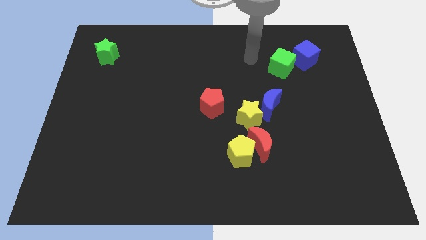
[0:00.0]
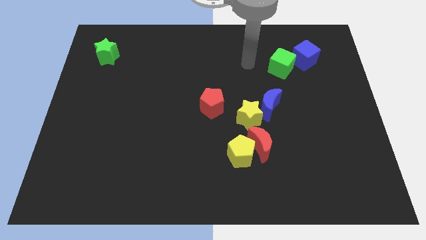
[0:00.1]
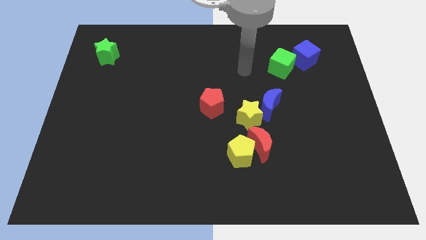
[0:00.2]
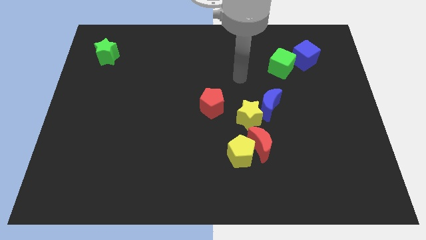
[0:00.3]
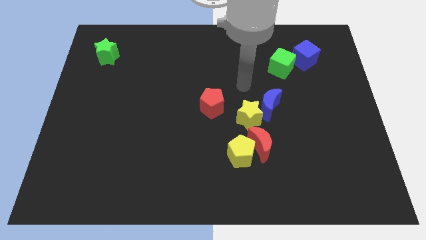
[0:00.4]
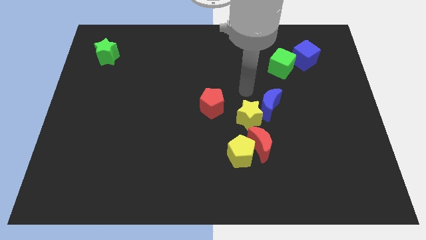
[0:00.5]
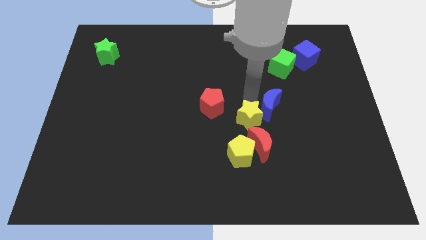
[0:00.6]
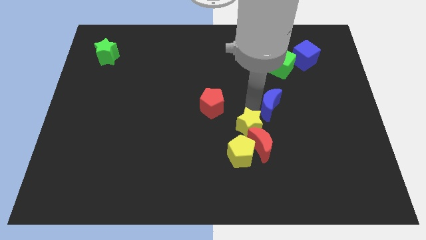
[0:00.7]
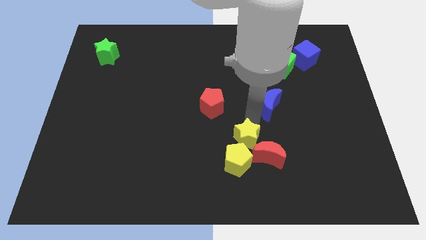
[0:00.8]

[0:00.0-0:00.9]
separate the blue moon from the yellow star

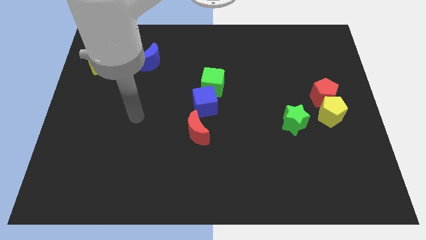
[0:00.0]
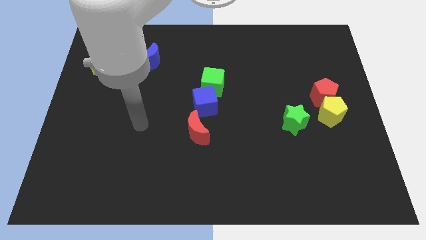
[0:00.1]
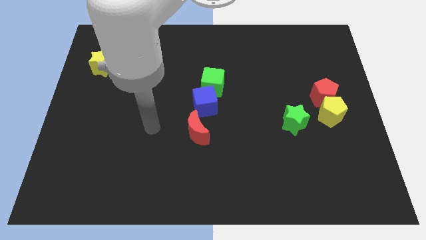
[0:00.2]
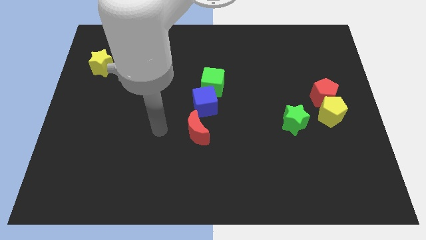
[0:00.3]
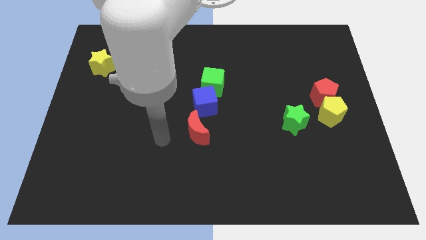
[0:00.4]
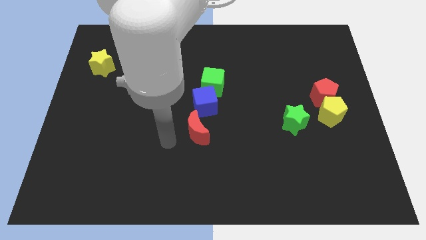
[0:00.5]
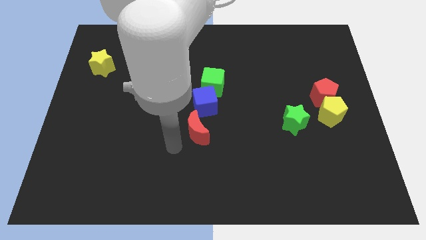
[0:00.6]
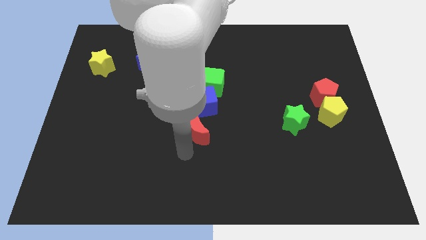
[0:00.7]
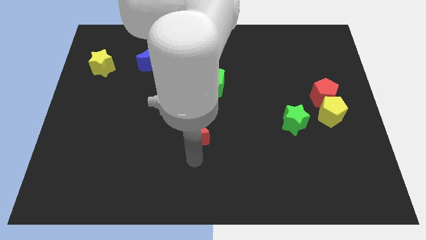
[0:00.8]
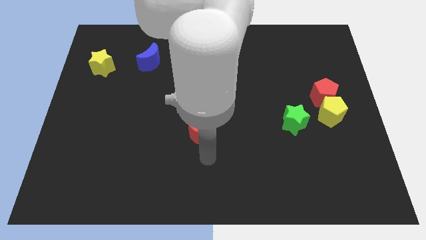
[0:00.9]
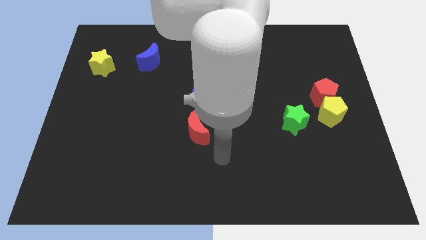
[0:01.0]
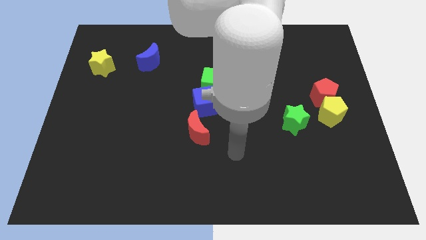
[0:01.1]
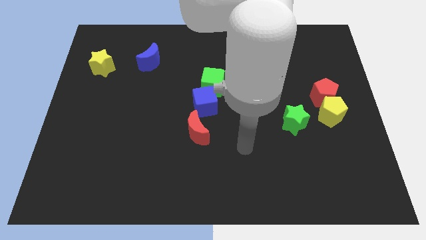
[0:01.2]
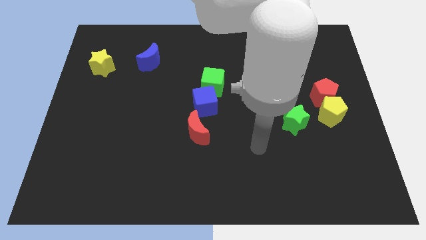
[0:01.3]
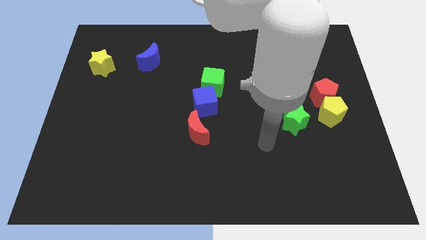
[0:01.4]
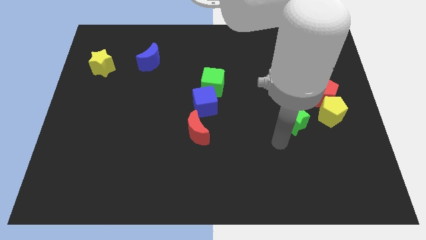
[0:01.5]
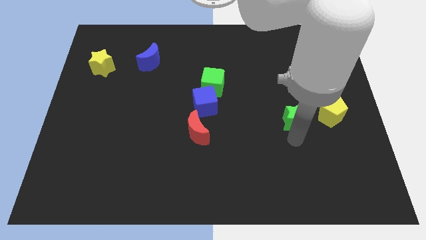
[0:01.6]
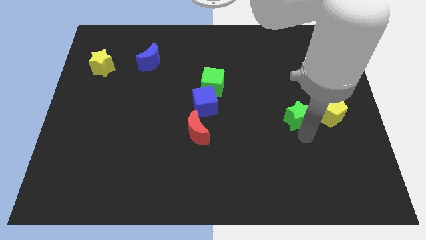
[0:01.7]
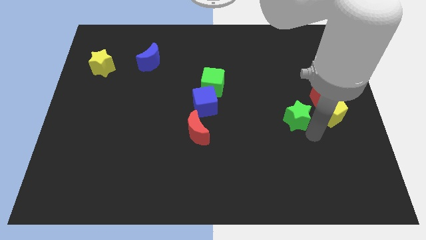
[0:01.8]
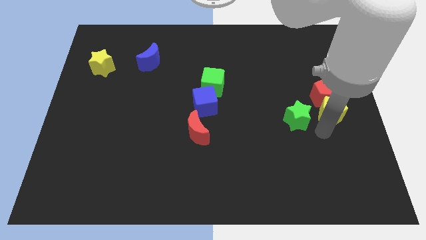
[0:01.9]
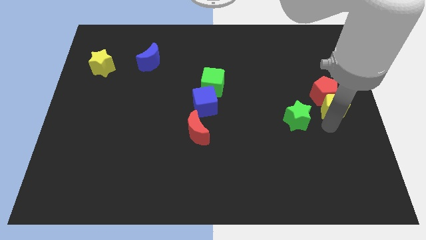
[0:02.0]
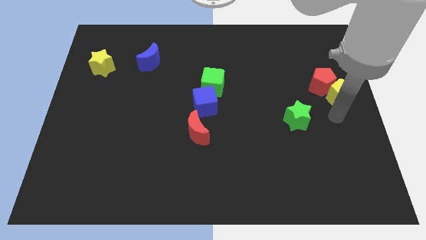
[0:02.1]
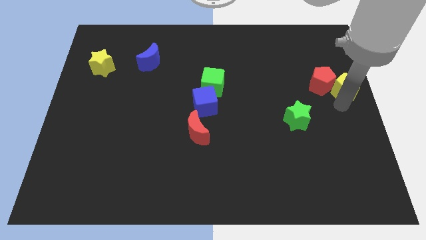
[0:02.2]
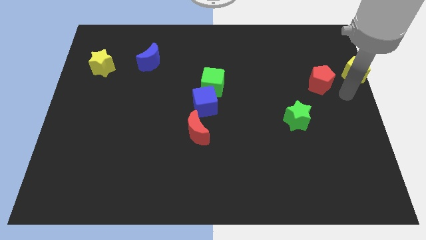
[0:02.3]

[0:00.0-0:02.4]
pull the red pentagon apart from the yellow pentagon

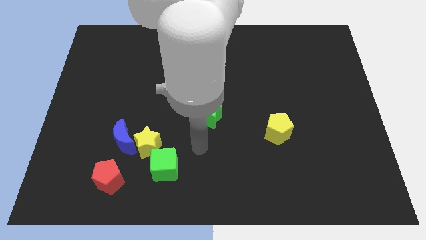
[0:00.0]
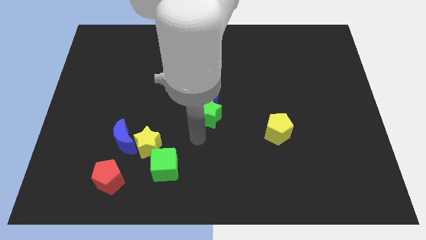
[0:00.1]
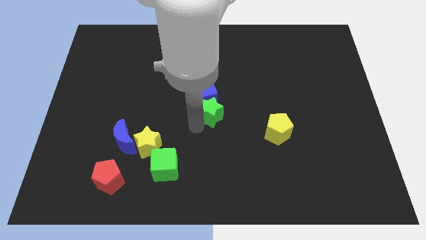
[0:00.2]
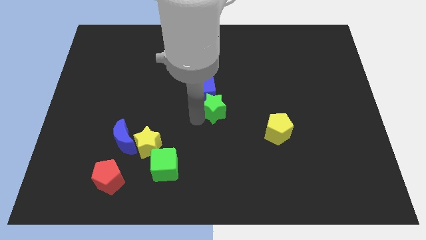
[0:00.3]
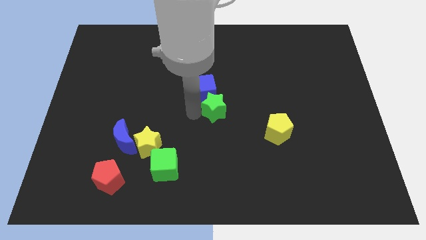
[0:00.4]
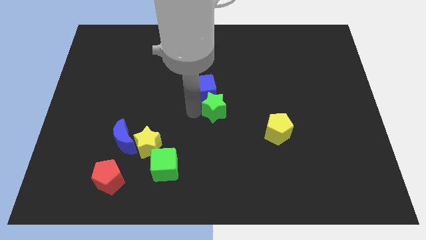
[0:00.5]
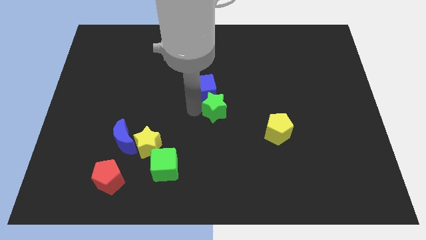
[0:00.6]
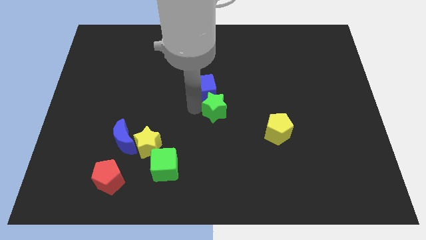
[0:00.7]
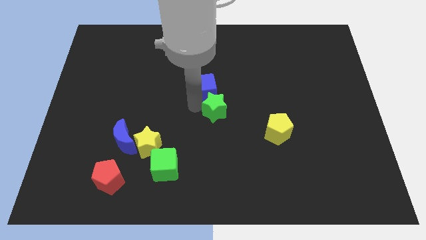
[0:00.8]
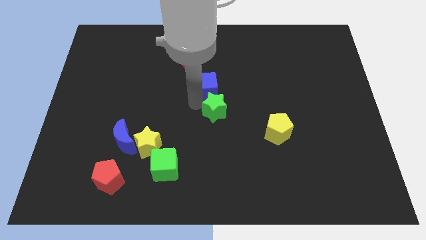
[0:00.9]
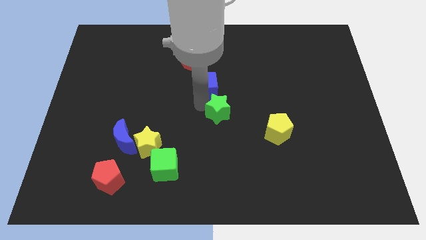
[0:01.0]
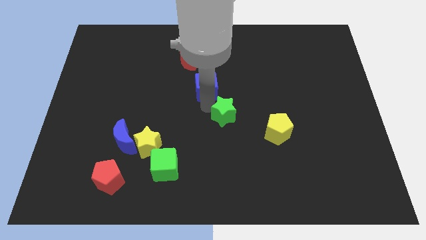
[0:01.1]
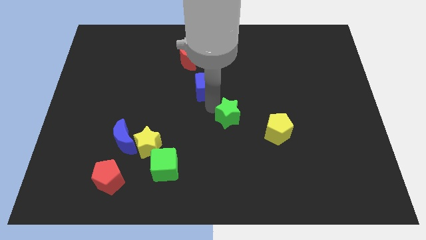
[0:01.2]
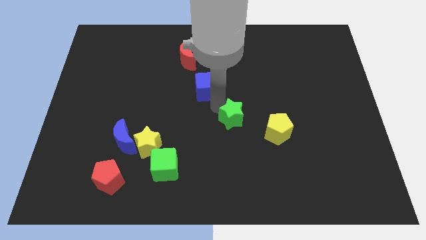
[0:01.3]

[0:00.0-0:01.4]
pull the blue cube apart from the green star

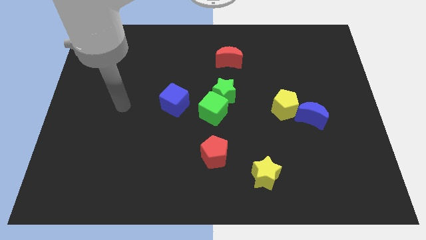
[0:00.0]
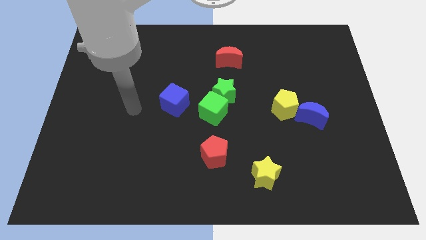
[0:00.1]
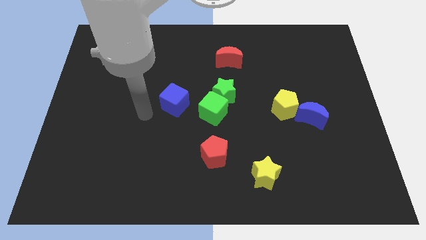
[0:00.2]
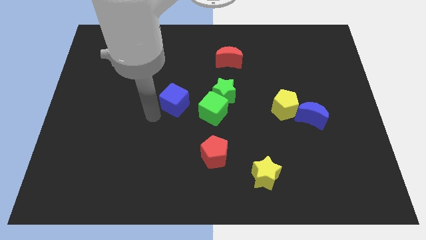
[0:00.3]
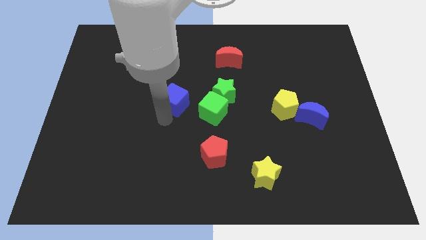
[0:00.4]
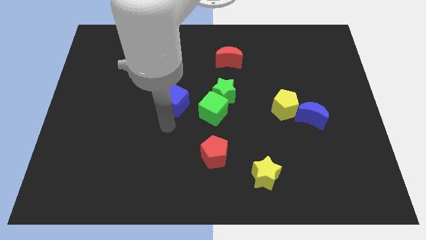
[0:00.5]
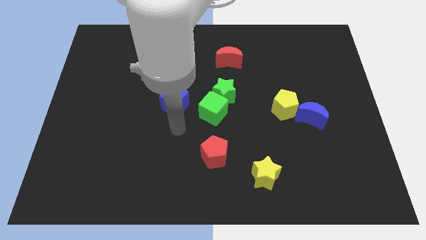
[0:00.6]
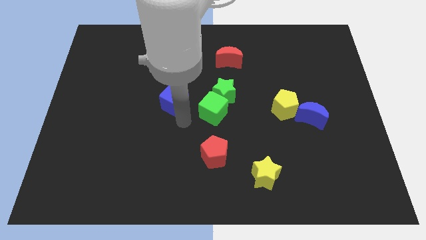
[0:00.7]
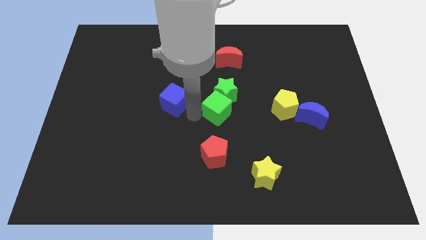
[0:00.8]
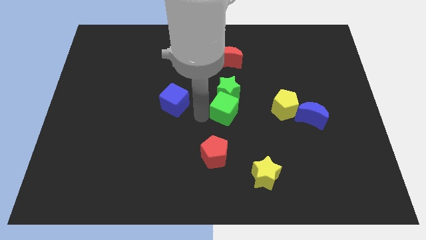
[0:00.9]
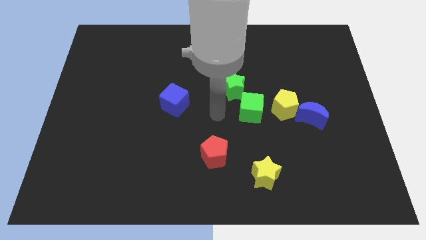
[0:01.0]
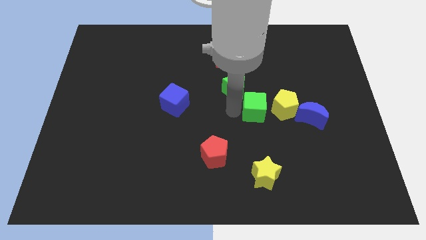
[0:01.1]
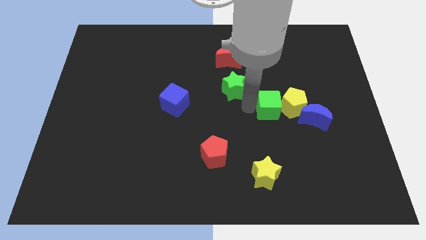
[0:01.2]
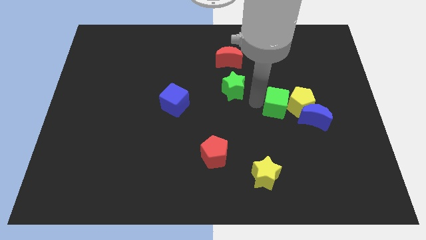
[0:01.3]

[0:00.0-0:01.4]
separate the green star from the green cube

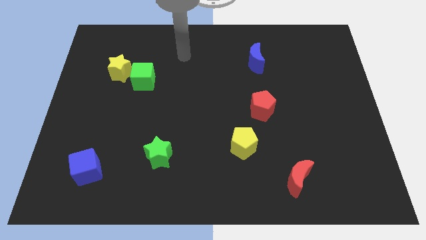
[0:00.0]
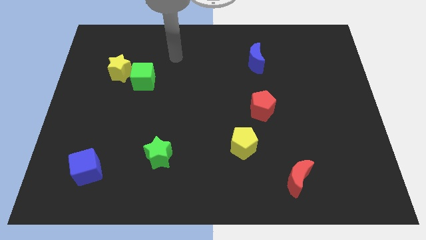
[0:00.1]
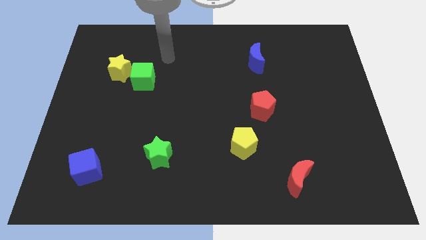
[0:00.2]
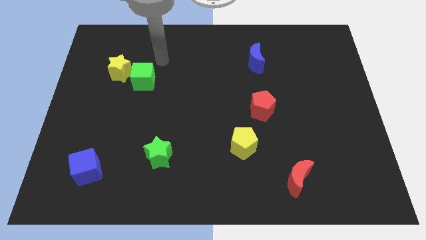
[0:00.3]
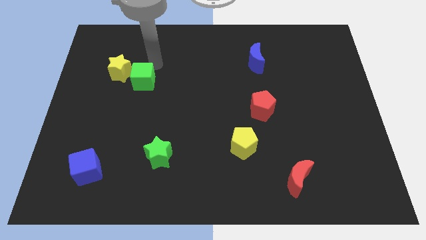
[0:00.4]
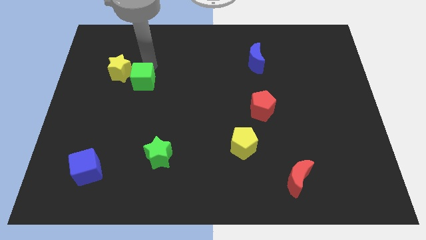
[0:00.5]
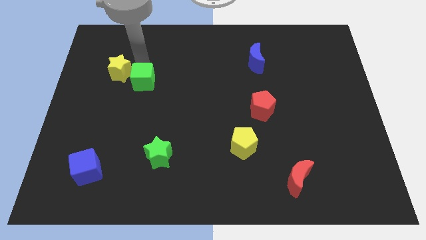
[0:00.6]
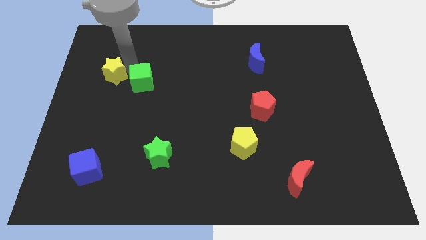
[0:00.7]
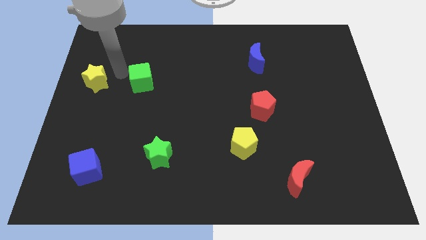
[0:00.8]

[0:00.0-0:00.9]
move the green cube away from the yellow star

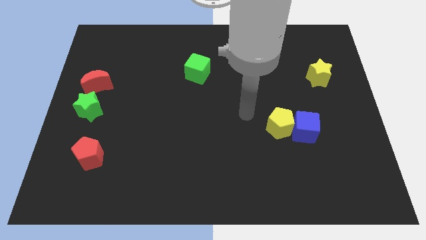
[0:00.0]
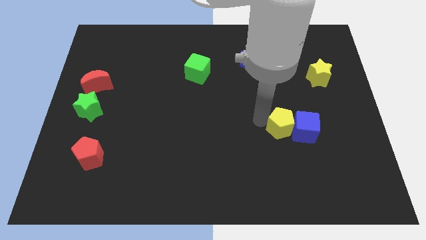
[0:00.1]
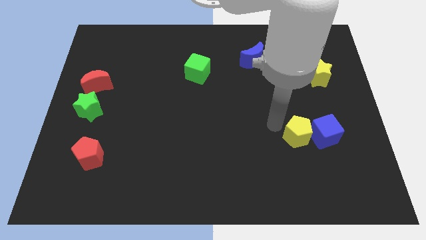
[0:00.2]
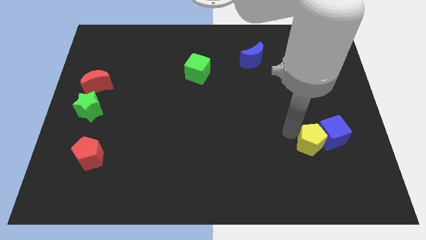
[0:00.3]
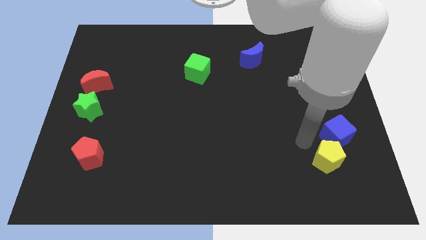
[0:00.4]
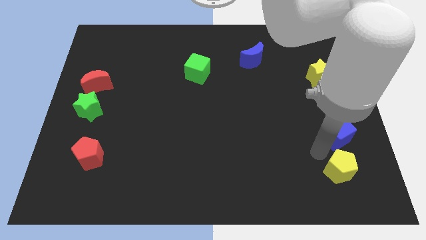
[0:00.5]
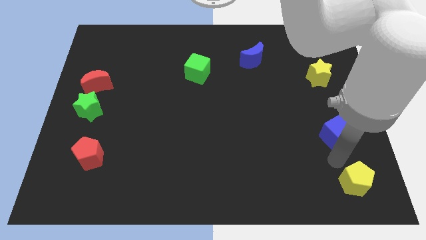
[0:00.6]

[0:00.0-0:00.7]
pull the blue cube apart from the yellow pentagon

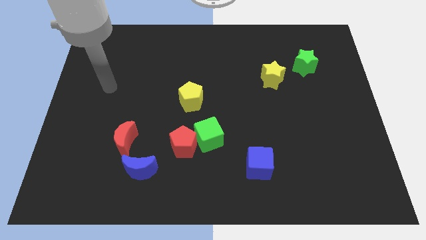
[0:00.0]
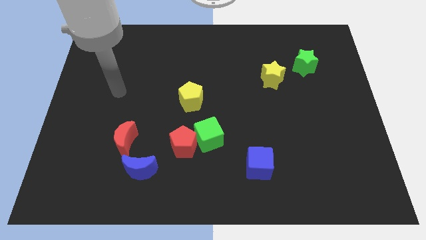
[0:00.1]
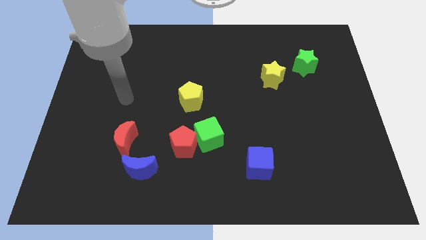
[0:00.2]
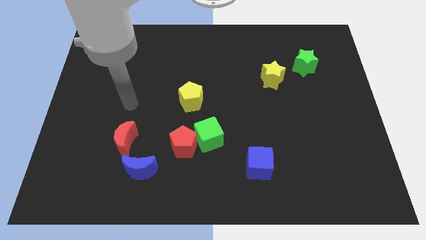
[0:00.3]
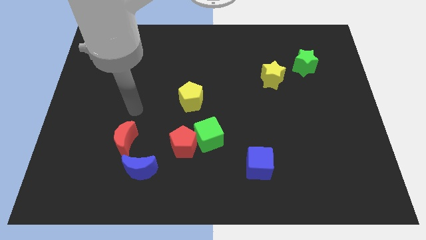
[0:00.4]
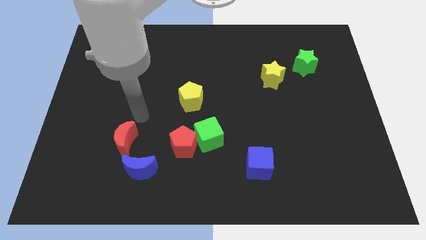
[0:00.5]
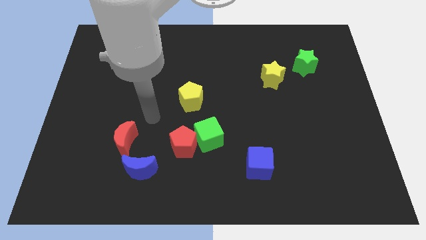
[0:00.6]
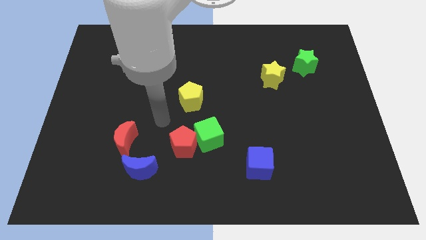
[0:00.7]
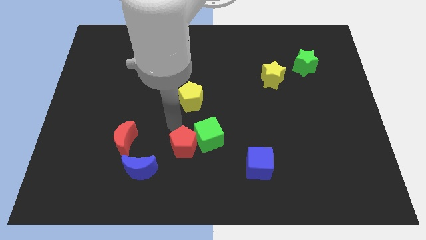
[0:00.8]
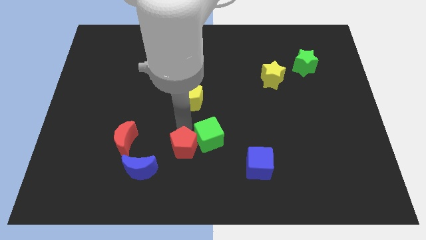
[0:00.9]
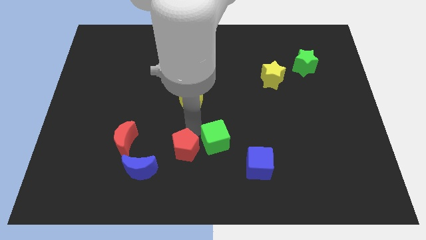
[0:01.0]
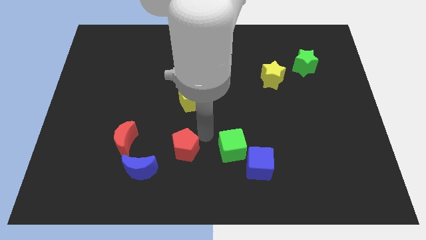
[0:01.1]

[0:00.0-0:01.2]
move the red pentagon away from the green cube

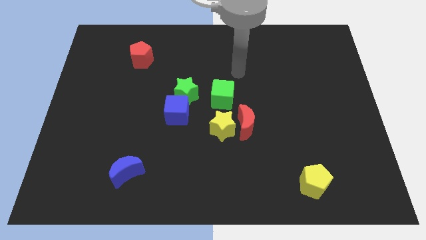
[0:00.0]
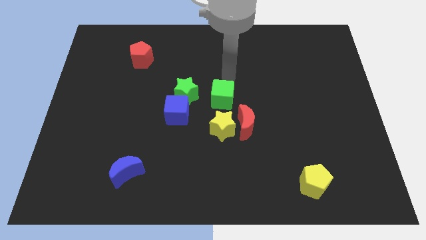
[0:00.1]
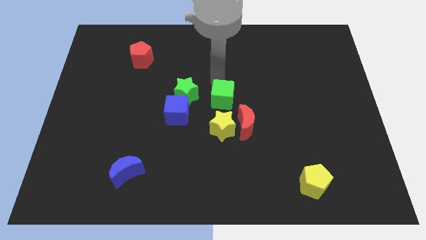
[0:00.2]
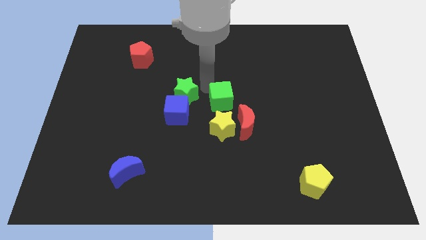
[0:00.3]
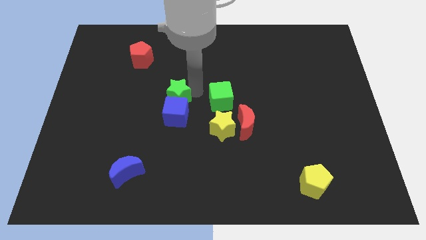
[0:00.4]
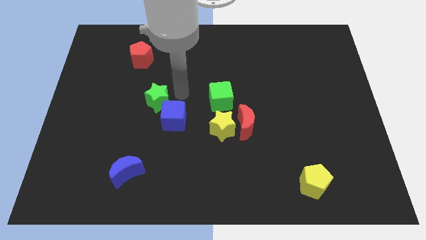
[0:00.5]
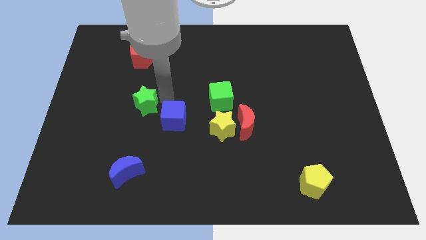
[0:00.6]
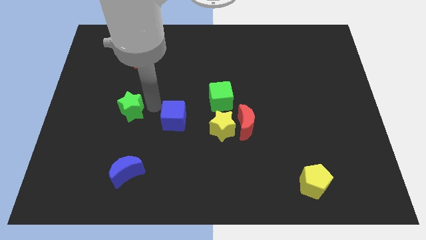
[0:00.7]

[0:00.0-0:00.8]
move the blue cube away from the green star
